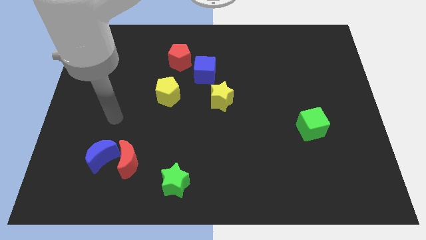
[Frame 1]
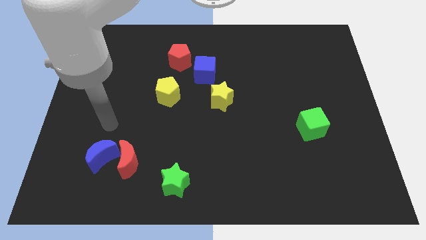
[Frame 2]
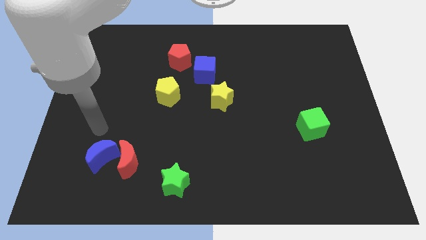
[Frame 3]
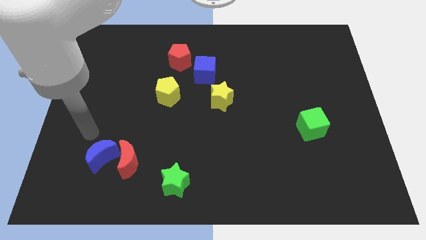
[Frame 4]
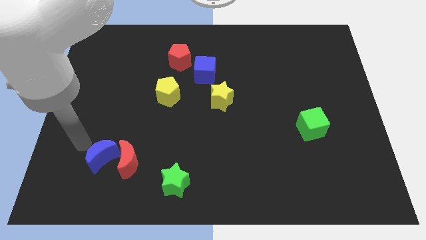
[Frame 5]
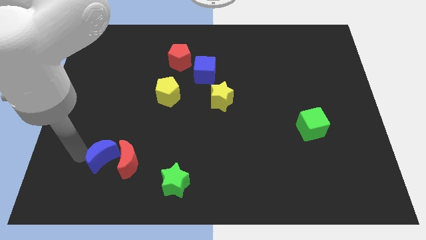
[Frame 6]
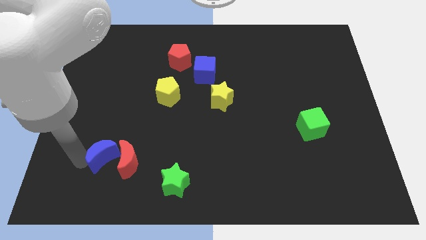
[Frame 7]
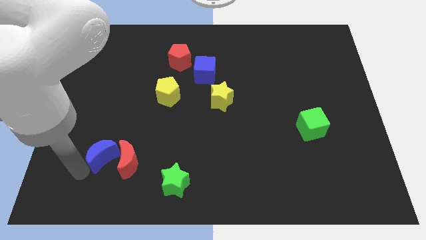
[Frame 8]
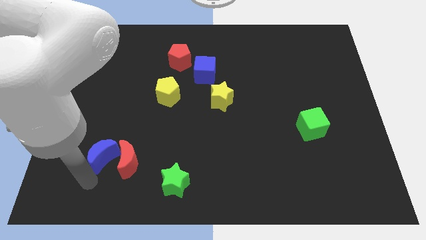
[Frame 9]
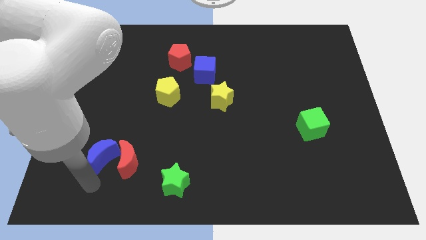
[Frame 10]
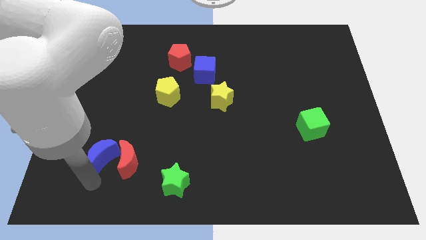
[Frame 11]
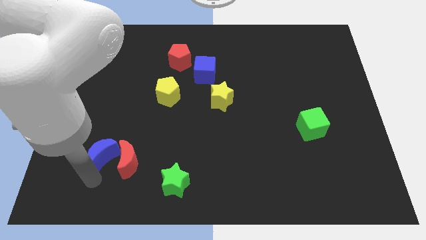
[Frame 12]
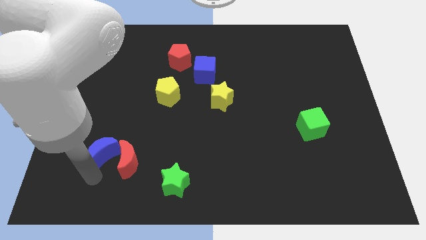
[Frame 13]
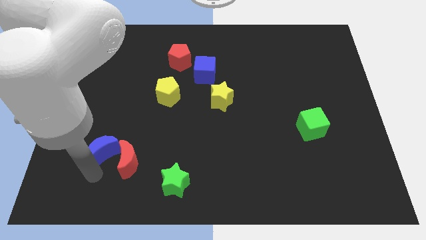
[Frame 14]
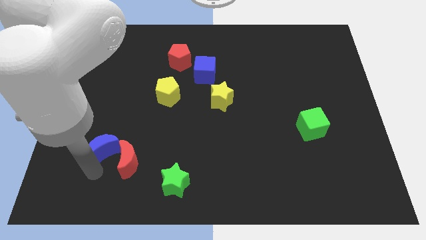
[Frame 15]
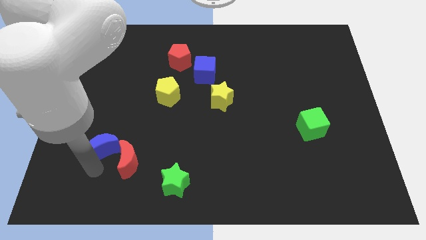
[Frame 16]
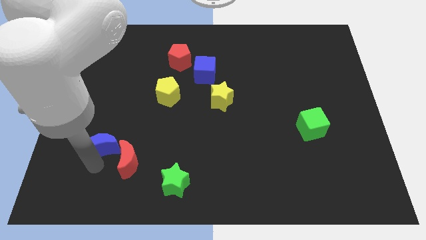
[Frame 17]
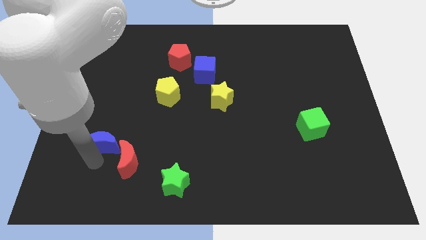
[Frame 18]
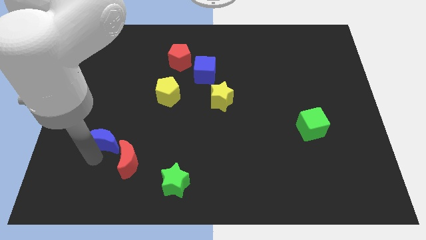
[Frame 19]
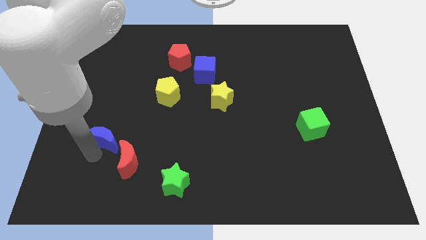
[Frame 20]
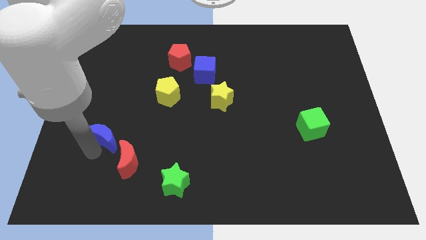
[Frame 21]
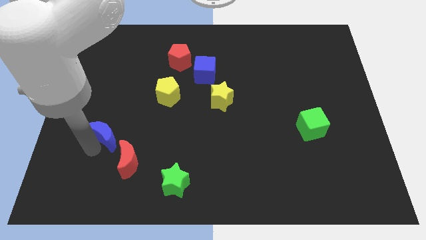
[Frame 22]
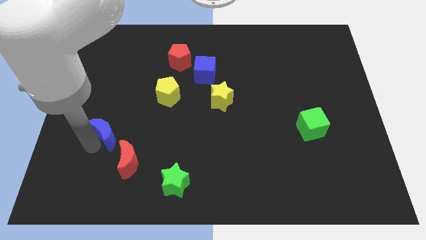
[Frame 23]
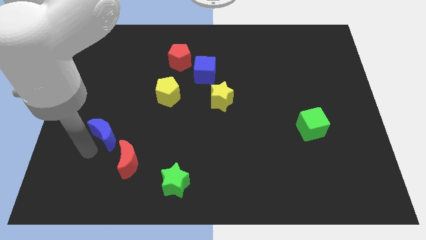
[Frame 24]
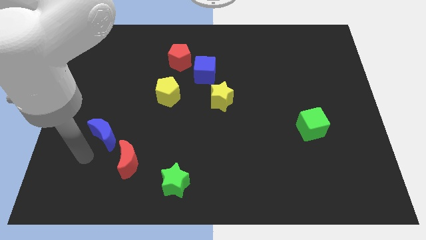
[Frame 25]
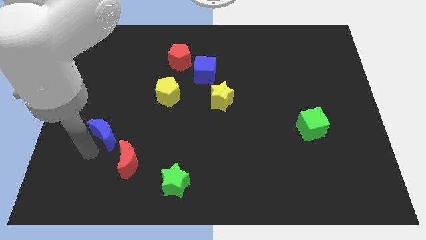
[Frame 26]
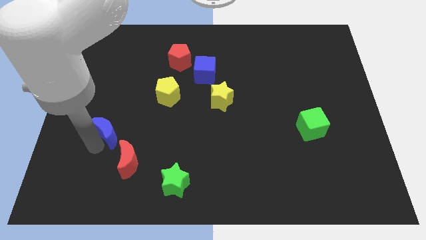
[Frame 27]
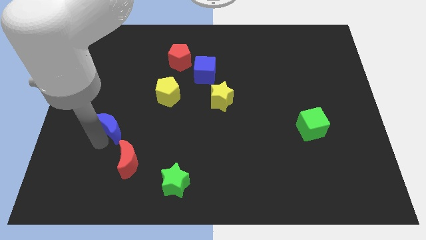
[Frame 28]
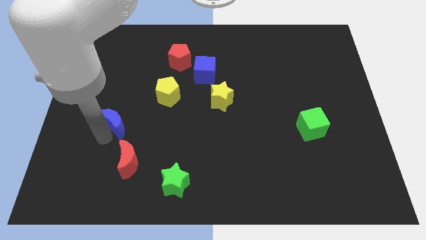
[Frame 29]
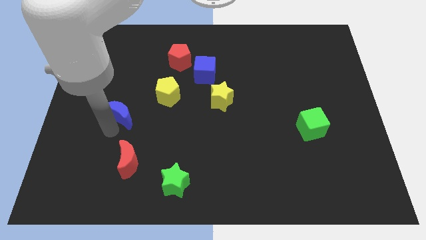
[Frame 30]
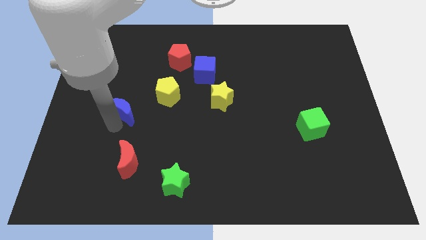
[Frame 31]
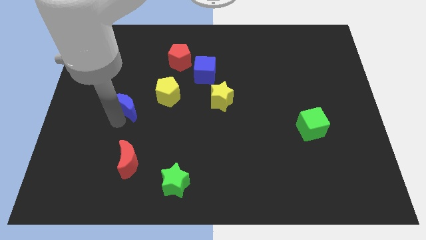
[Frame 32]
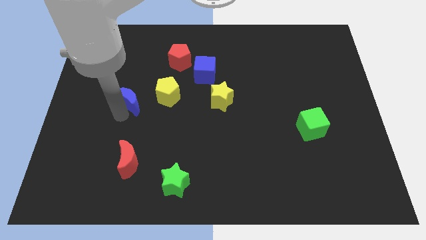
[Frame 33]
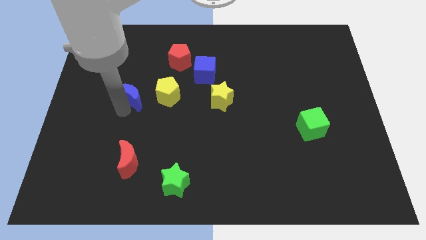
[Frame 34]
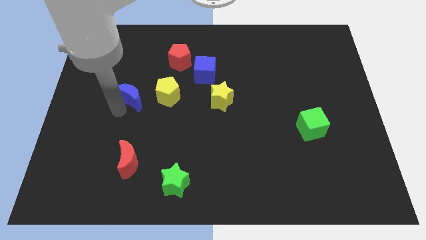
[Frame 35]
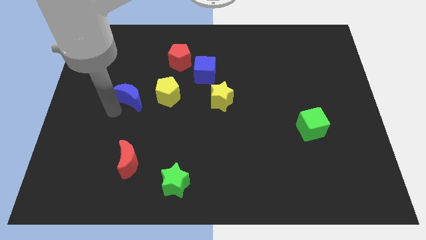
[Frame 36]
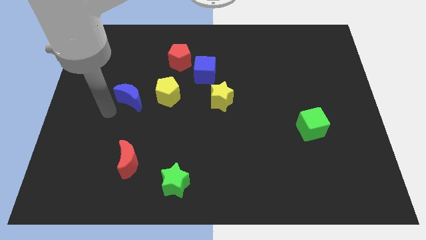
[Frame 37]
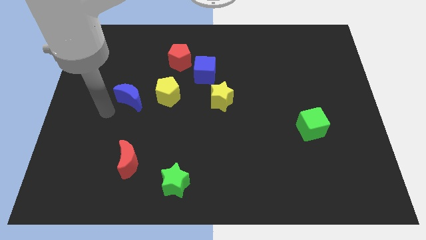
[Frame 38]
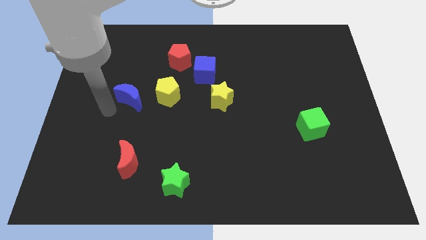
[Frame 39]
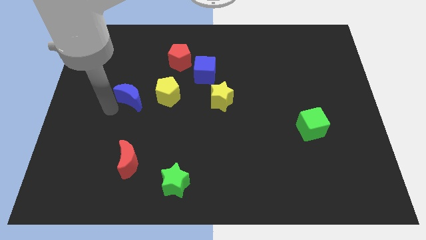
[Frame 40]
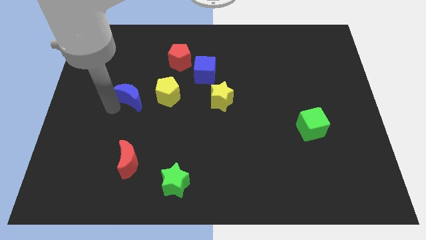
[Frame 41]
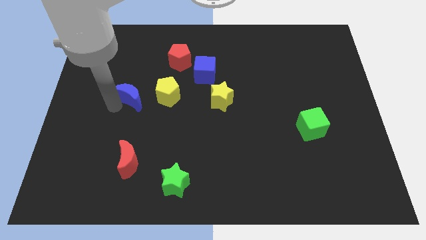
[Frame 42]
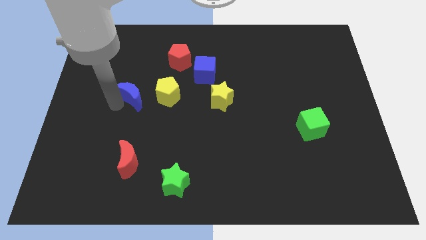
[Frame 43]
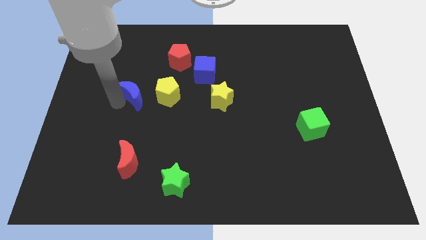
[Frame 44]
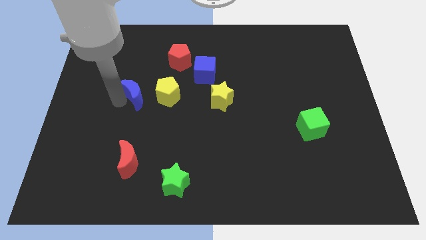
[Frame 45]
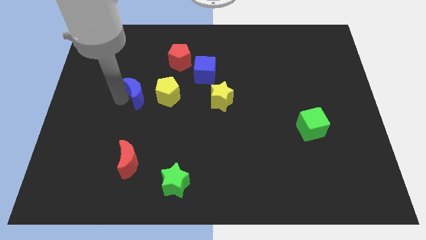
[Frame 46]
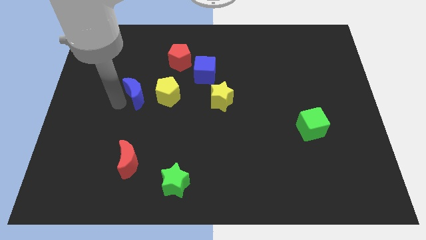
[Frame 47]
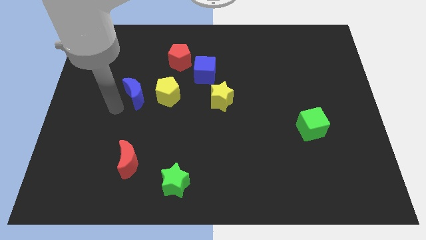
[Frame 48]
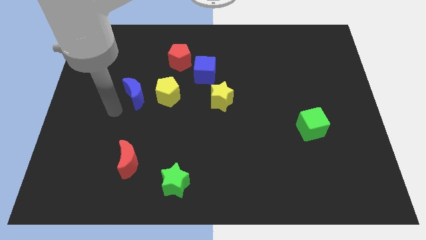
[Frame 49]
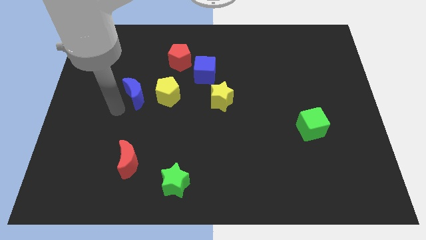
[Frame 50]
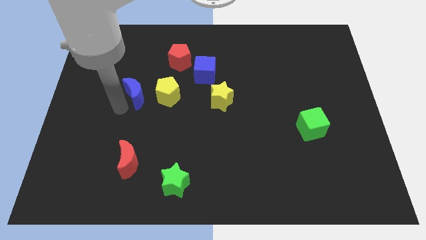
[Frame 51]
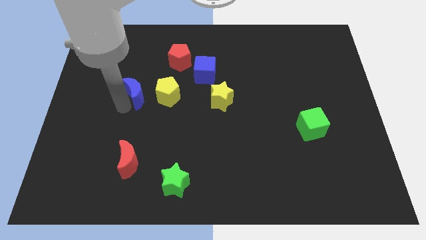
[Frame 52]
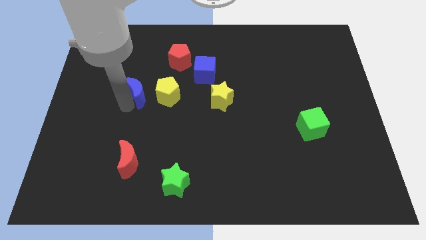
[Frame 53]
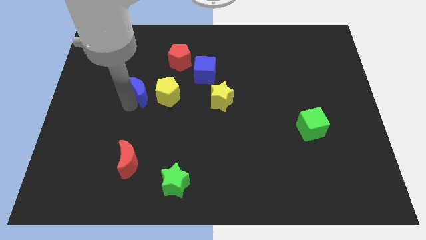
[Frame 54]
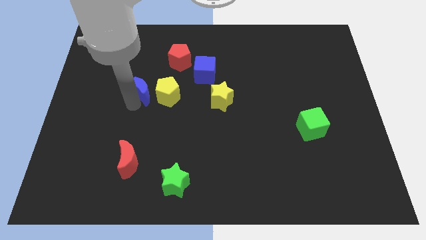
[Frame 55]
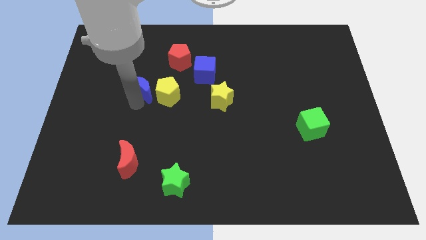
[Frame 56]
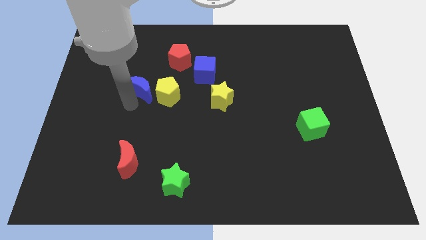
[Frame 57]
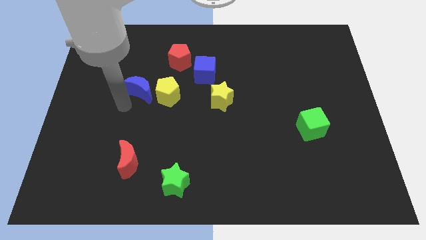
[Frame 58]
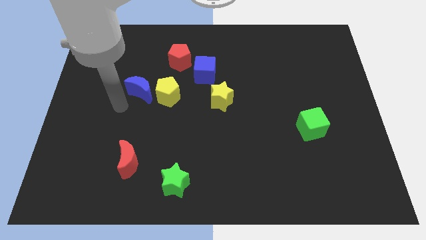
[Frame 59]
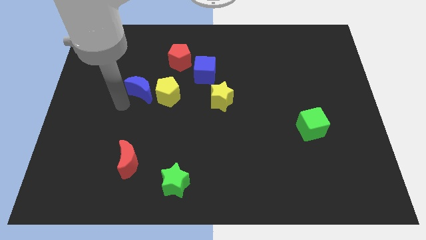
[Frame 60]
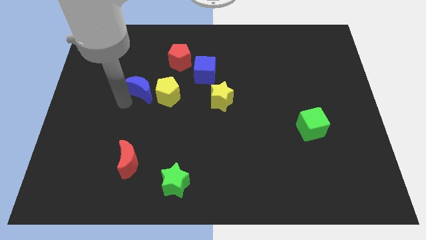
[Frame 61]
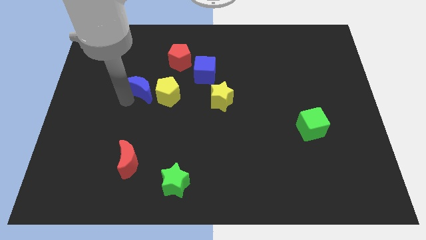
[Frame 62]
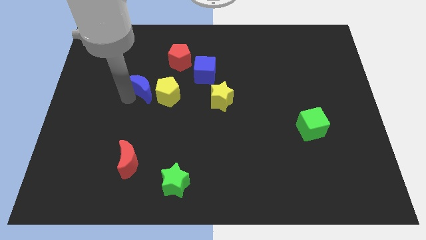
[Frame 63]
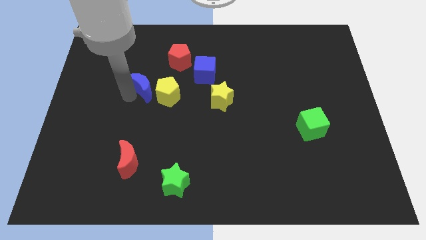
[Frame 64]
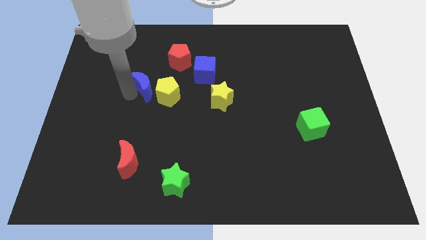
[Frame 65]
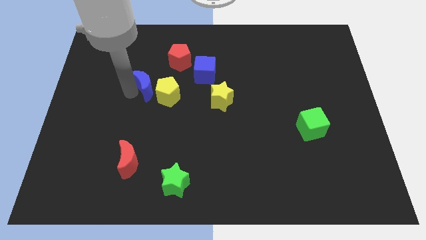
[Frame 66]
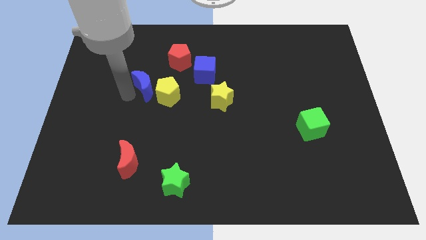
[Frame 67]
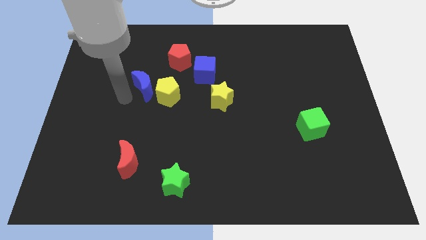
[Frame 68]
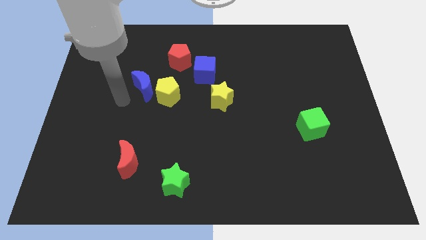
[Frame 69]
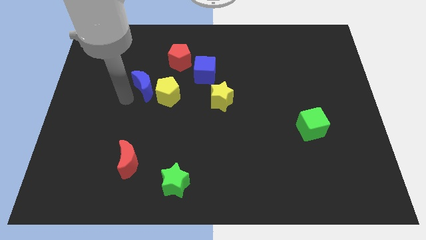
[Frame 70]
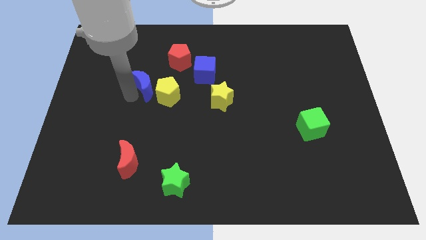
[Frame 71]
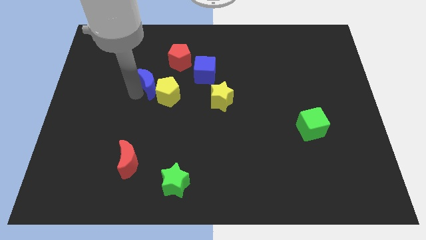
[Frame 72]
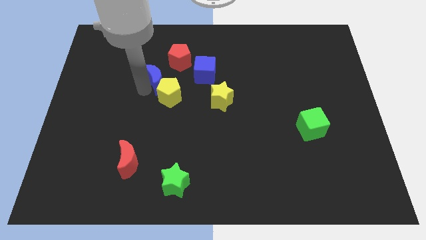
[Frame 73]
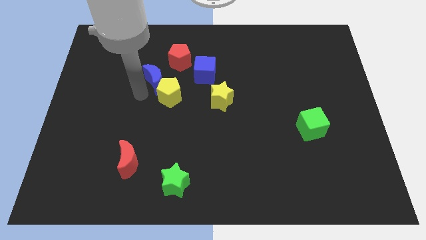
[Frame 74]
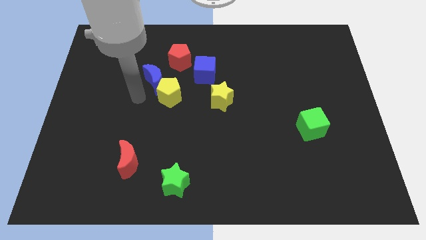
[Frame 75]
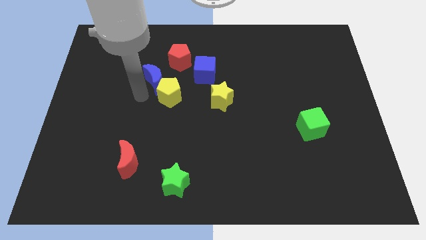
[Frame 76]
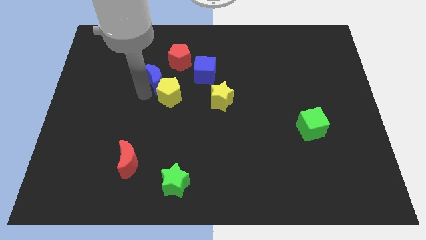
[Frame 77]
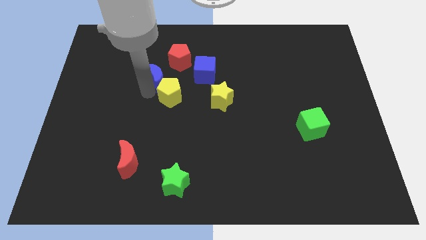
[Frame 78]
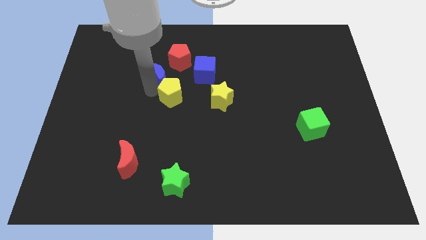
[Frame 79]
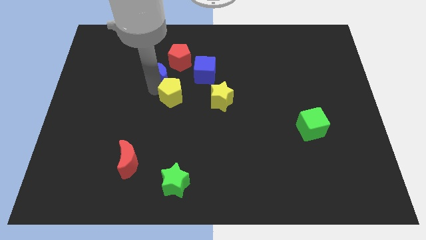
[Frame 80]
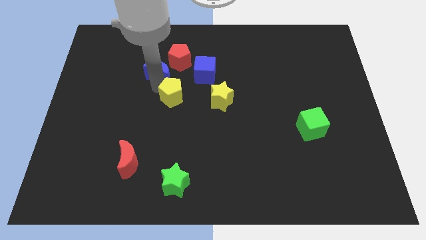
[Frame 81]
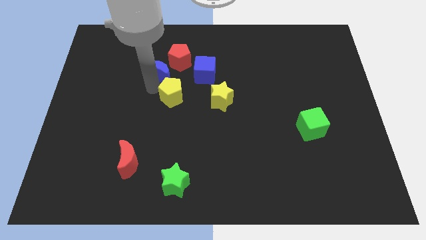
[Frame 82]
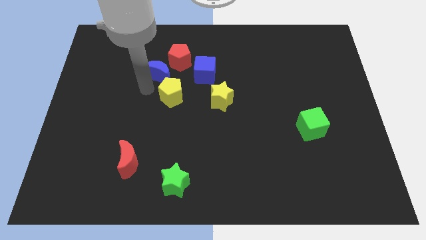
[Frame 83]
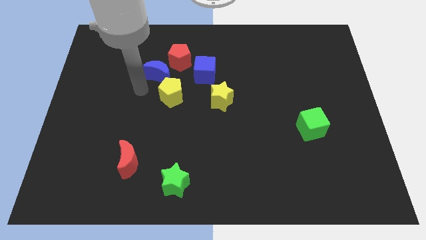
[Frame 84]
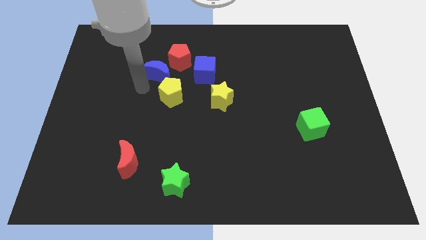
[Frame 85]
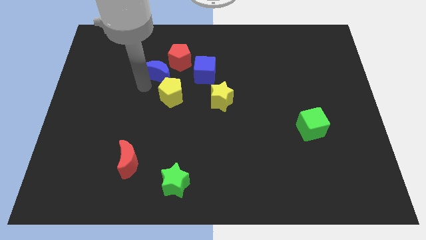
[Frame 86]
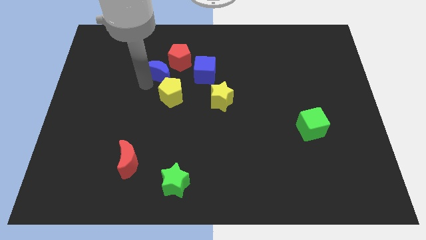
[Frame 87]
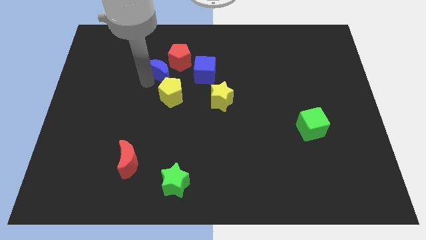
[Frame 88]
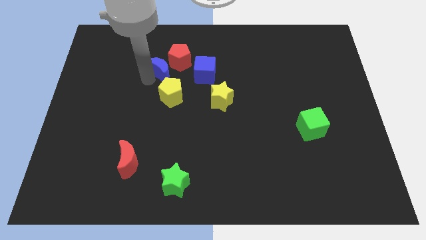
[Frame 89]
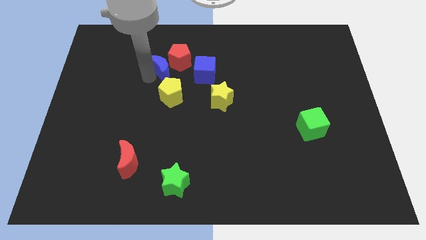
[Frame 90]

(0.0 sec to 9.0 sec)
move the blue moon towards the red pentagon
